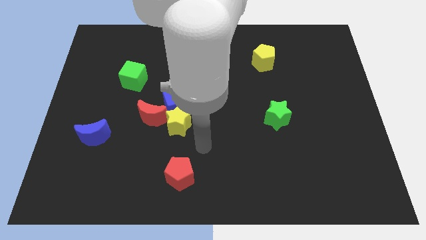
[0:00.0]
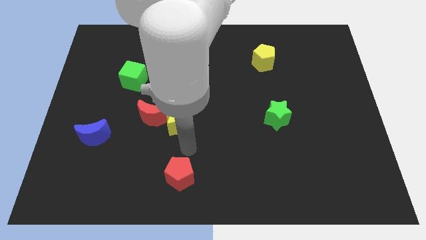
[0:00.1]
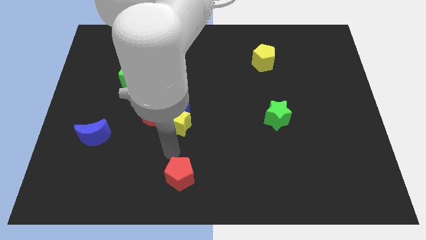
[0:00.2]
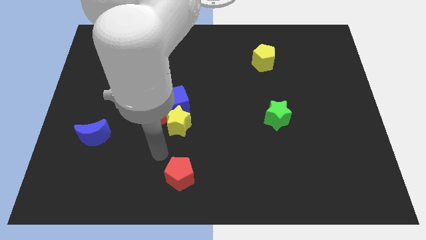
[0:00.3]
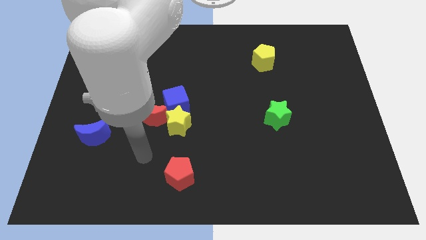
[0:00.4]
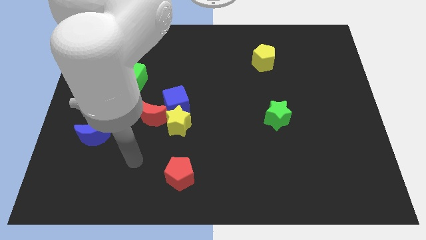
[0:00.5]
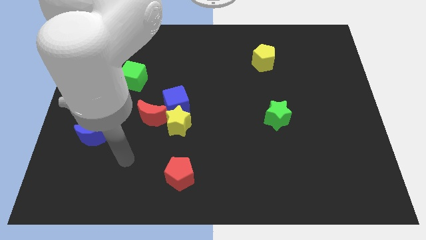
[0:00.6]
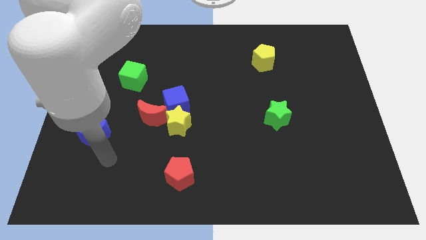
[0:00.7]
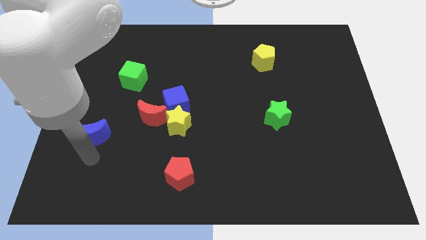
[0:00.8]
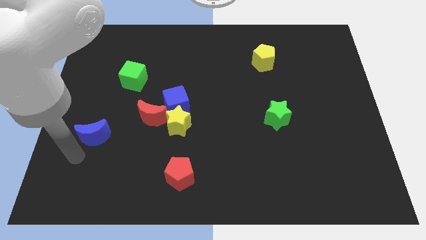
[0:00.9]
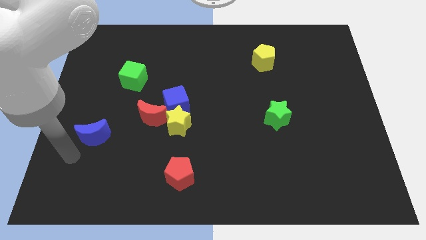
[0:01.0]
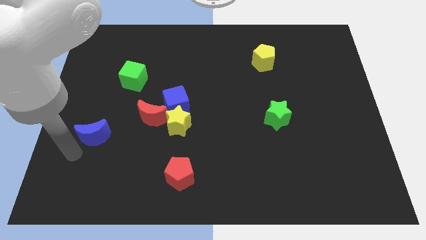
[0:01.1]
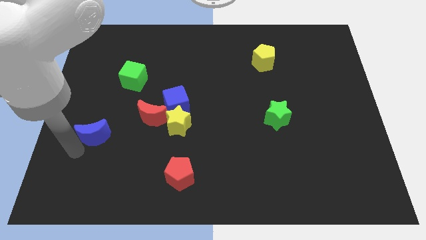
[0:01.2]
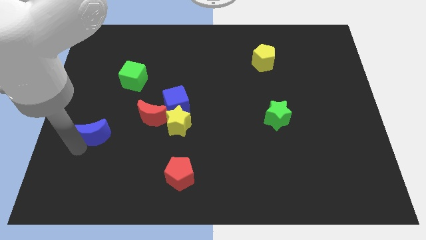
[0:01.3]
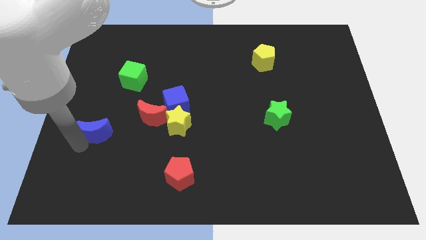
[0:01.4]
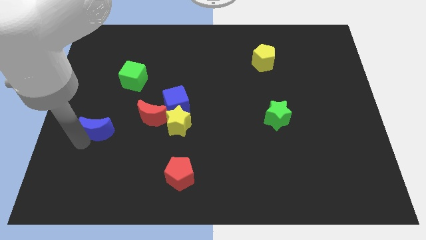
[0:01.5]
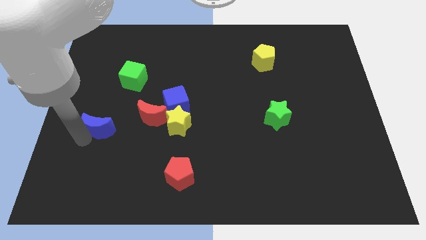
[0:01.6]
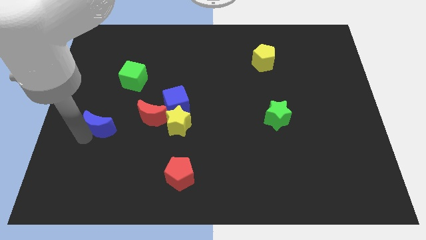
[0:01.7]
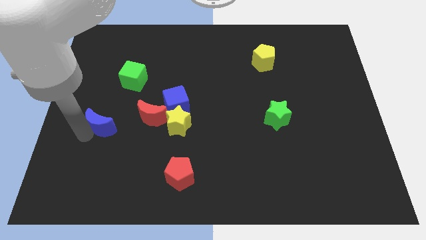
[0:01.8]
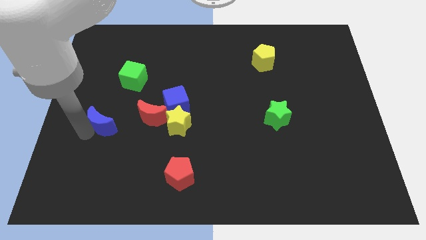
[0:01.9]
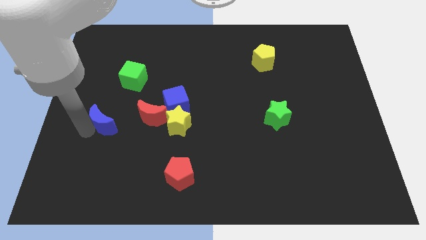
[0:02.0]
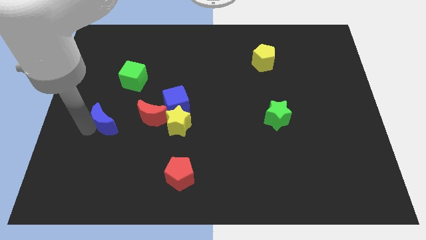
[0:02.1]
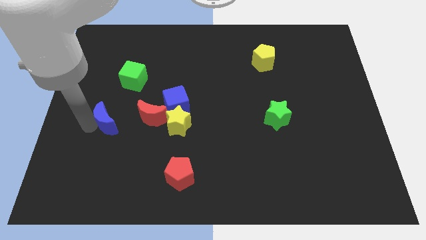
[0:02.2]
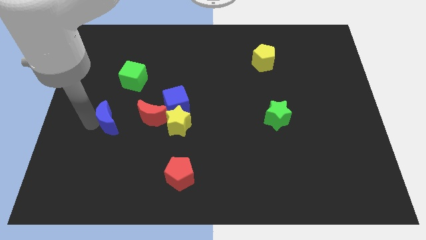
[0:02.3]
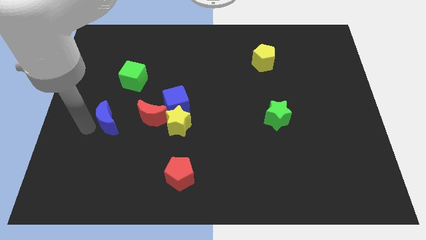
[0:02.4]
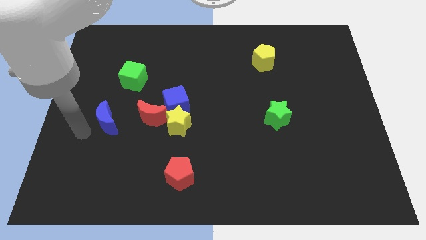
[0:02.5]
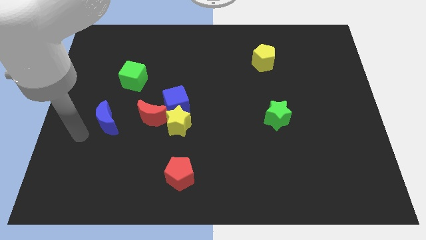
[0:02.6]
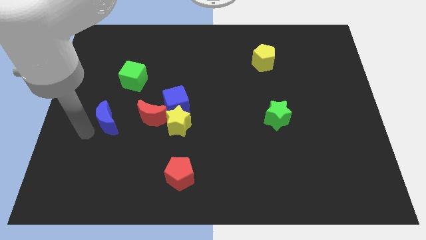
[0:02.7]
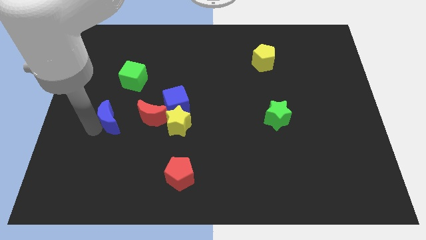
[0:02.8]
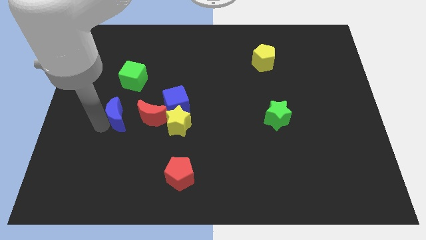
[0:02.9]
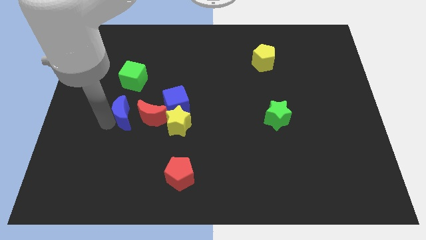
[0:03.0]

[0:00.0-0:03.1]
slightly move the blue moon diagonally upwards and to the right

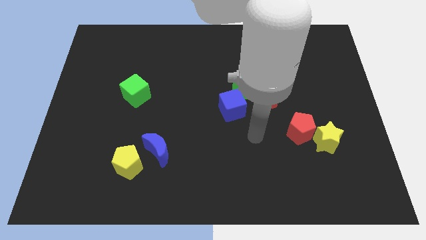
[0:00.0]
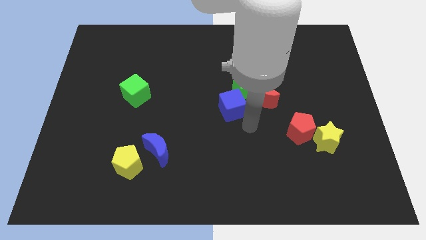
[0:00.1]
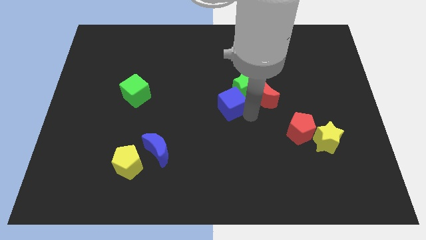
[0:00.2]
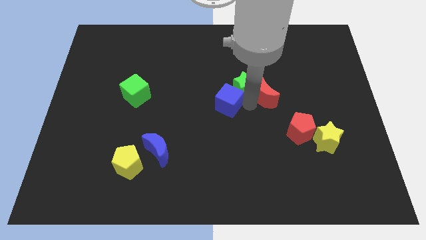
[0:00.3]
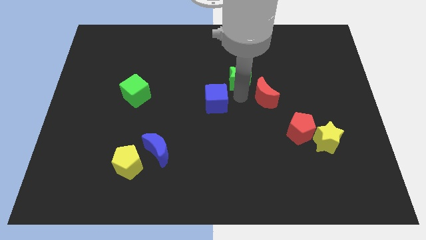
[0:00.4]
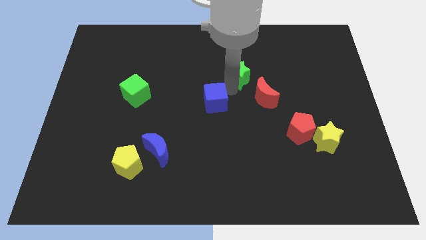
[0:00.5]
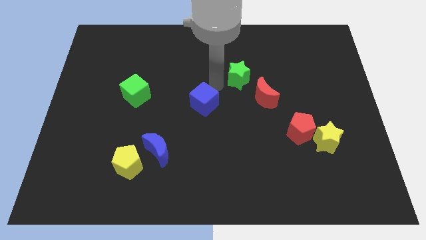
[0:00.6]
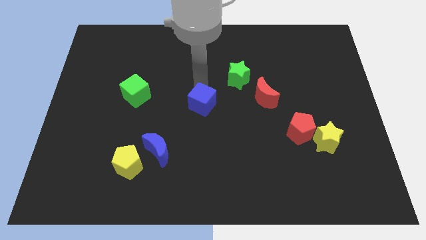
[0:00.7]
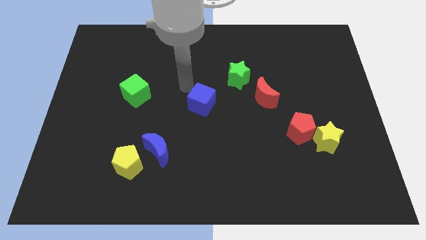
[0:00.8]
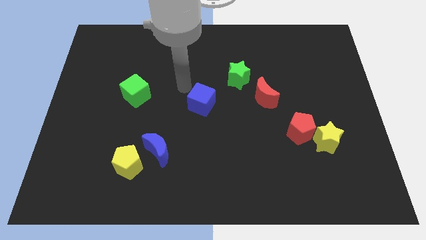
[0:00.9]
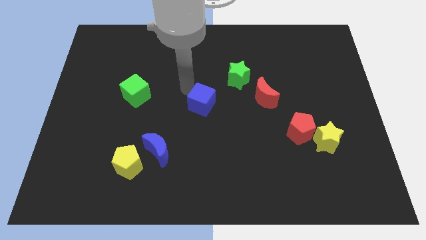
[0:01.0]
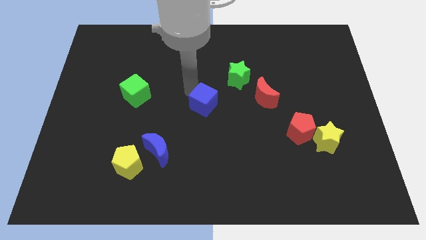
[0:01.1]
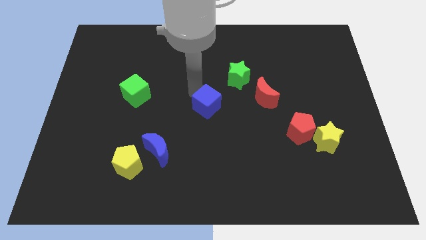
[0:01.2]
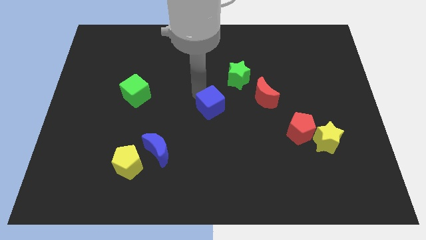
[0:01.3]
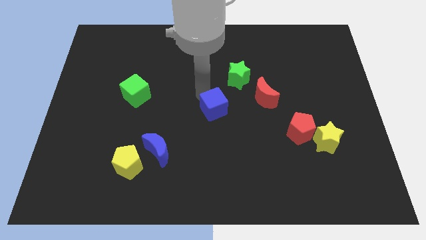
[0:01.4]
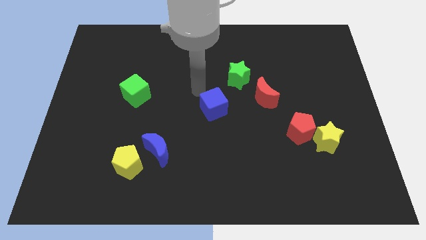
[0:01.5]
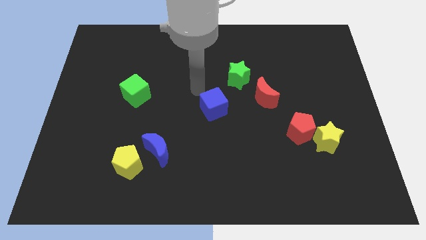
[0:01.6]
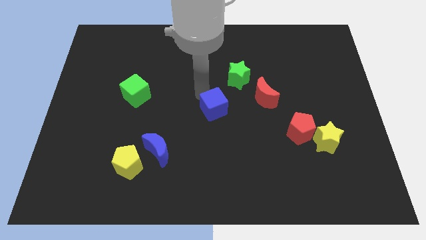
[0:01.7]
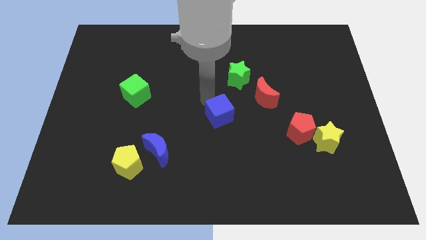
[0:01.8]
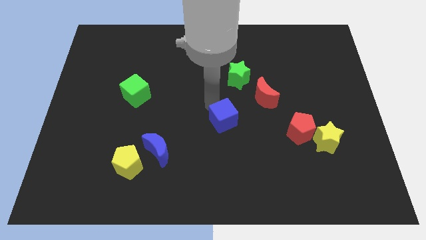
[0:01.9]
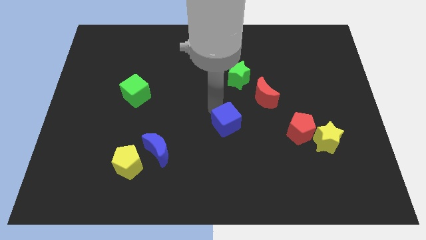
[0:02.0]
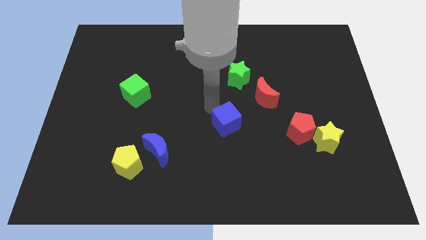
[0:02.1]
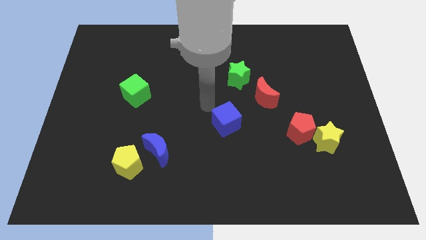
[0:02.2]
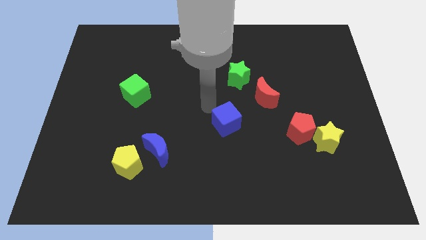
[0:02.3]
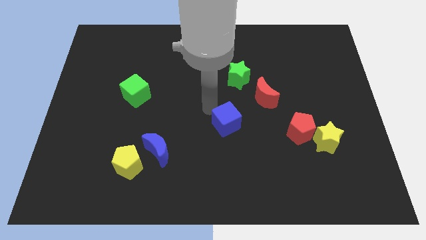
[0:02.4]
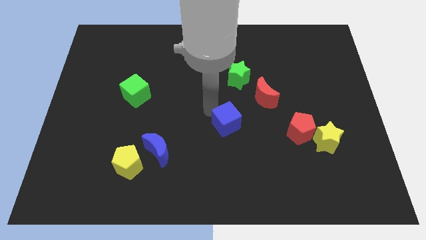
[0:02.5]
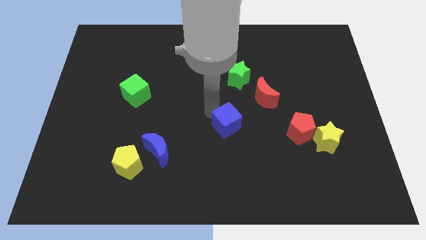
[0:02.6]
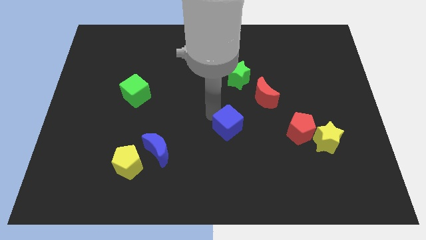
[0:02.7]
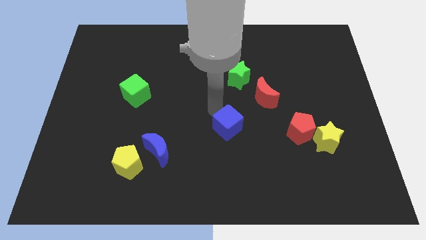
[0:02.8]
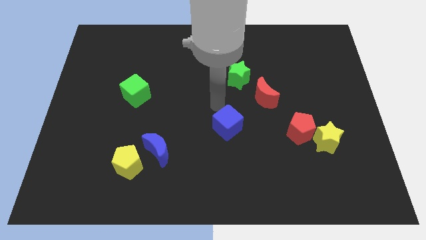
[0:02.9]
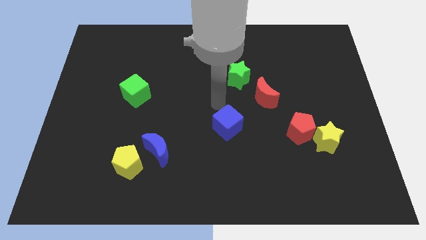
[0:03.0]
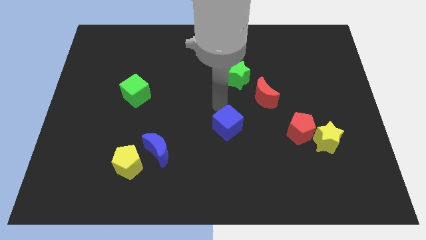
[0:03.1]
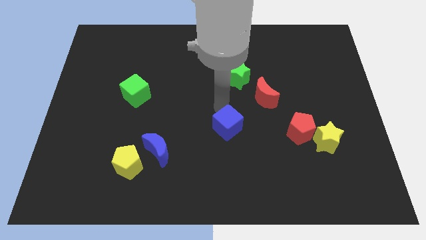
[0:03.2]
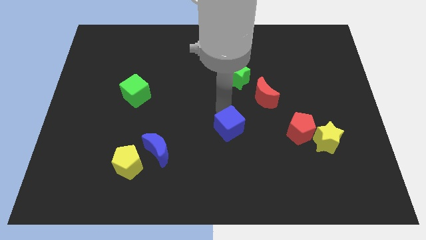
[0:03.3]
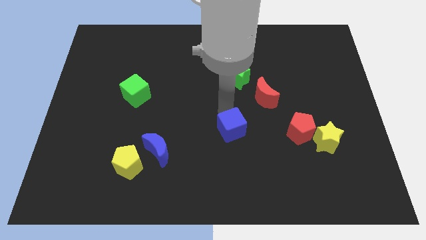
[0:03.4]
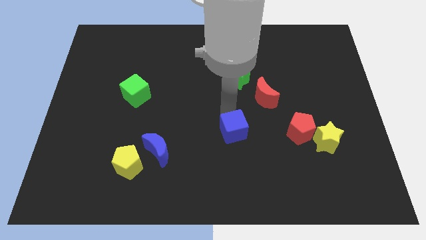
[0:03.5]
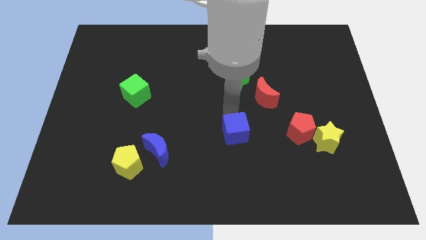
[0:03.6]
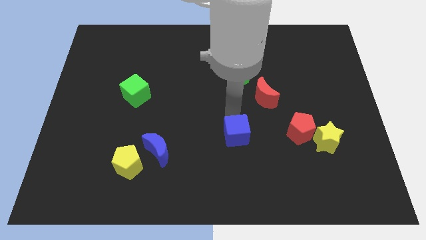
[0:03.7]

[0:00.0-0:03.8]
slide the blue cube slightly downwards

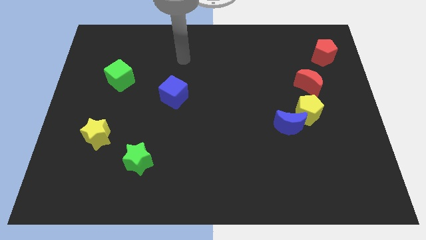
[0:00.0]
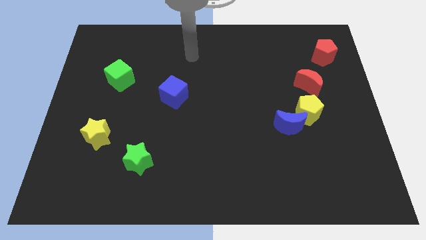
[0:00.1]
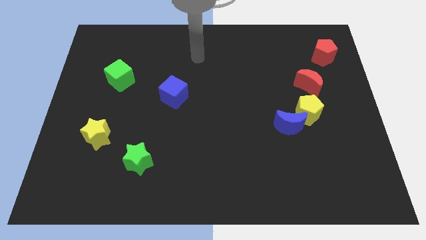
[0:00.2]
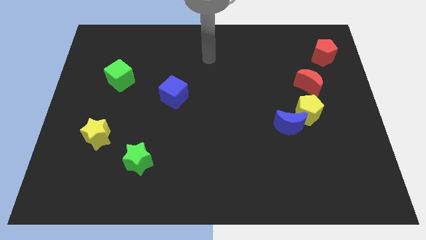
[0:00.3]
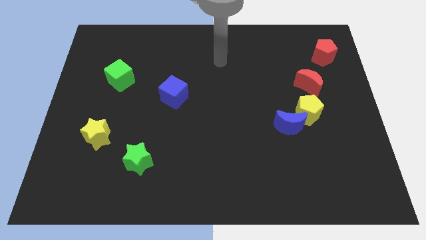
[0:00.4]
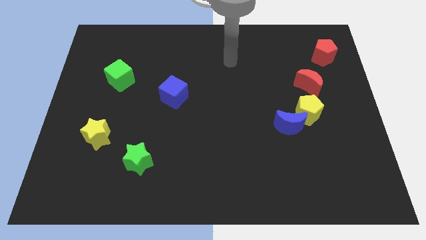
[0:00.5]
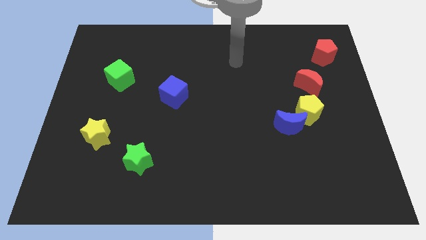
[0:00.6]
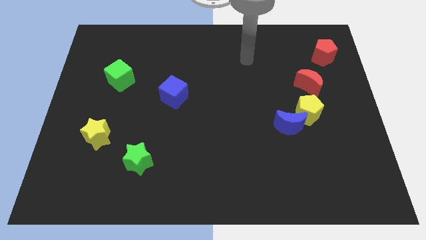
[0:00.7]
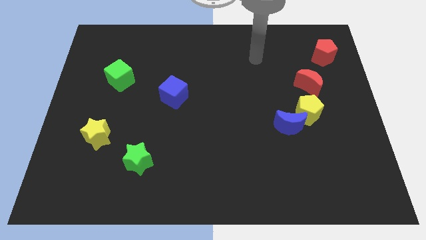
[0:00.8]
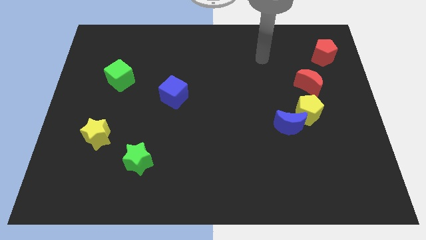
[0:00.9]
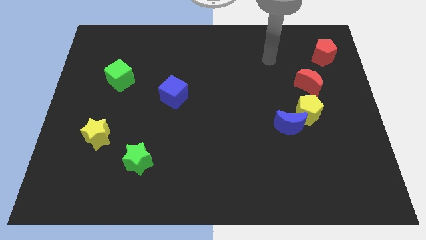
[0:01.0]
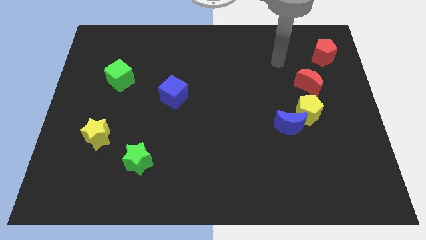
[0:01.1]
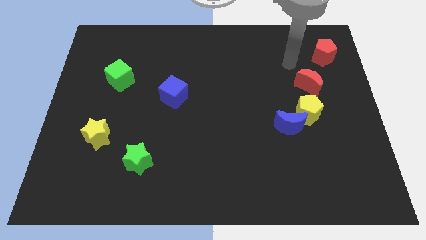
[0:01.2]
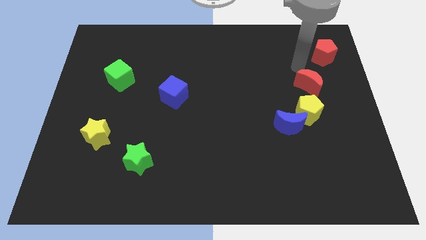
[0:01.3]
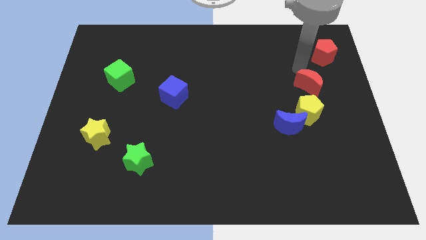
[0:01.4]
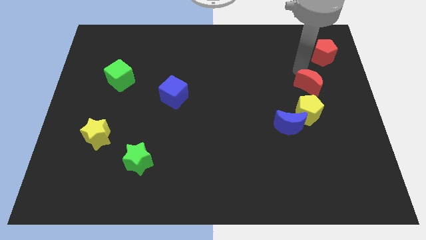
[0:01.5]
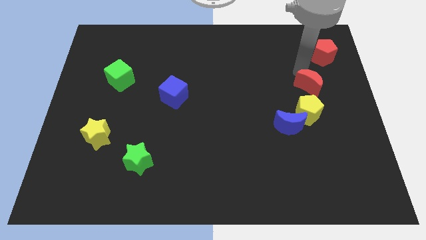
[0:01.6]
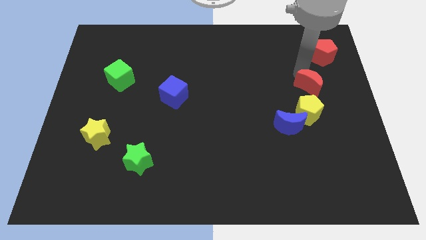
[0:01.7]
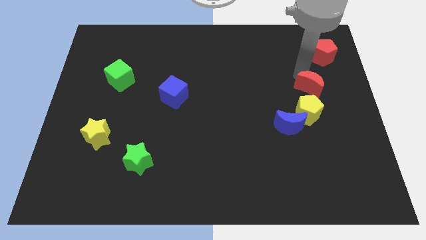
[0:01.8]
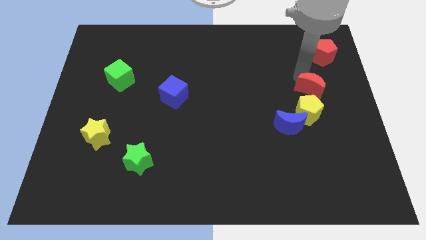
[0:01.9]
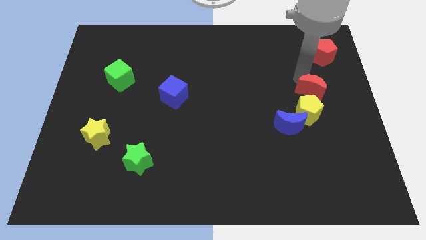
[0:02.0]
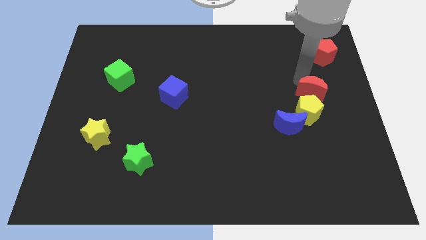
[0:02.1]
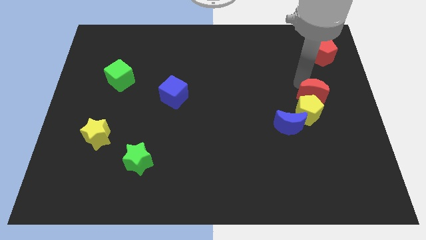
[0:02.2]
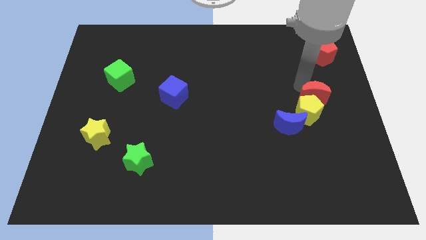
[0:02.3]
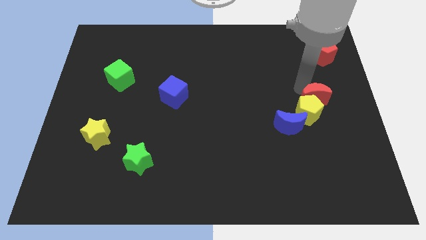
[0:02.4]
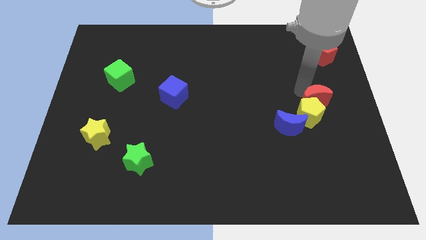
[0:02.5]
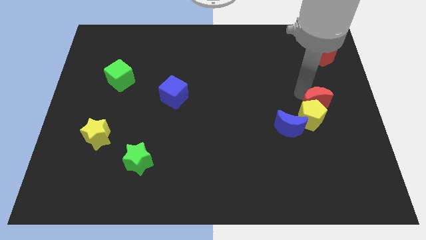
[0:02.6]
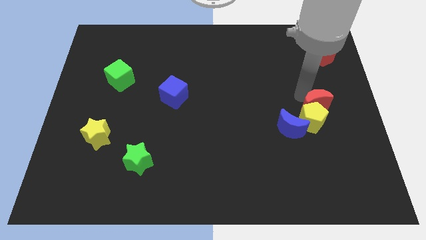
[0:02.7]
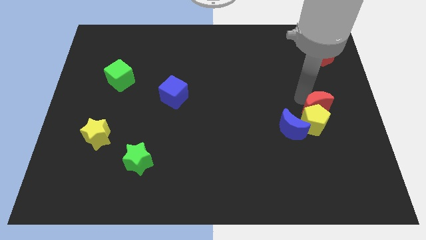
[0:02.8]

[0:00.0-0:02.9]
push the red moon down a little
